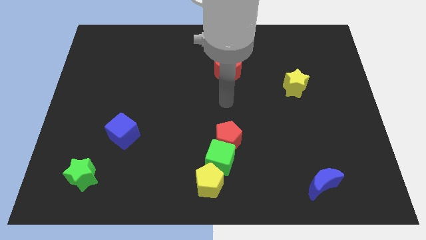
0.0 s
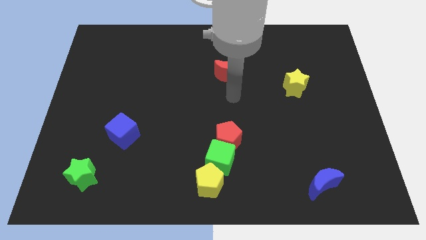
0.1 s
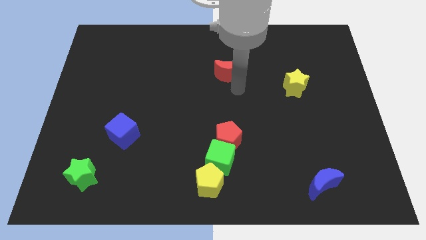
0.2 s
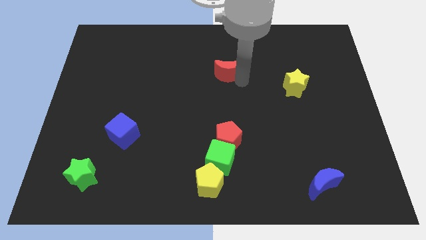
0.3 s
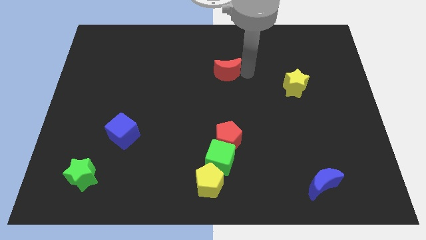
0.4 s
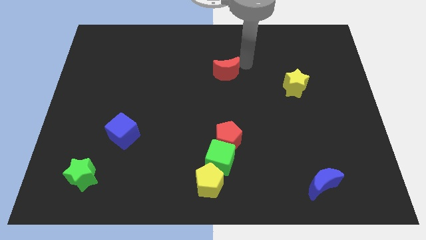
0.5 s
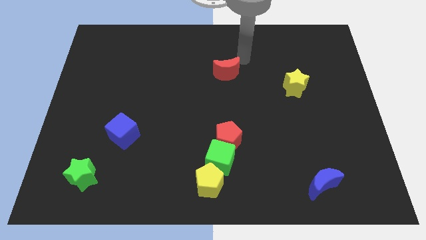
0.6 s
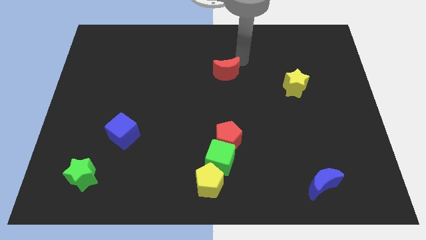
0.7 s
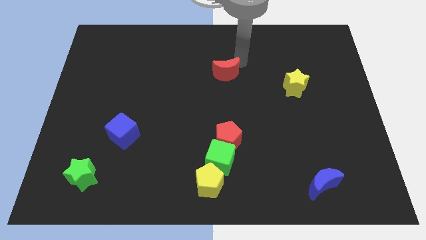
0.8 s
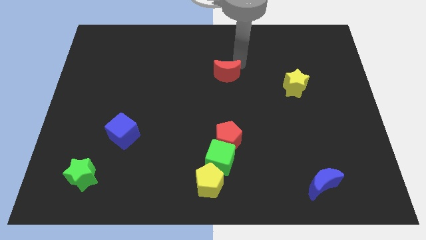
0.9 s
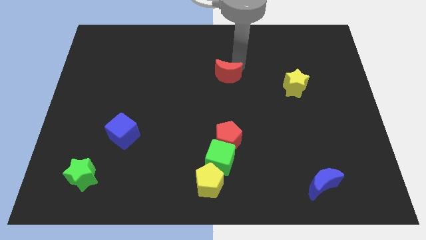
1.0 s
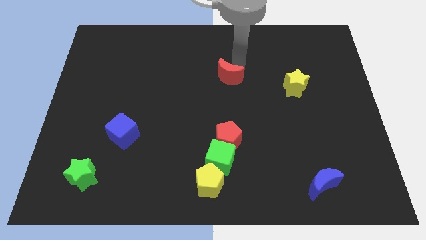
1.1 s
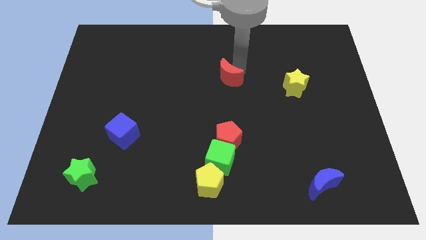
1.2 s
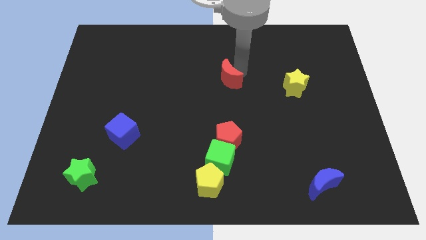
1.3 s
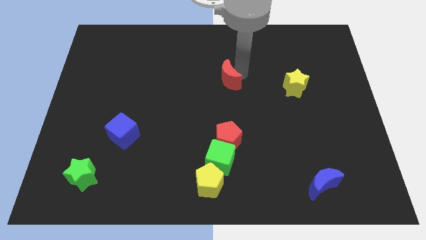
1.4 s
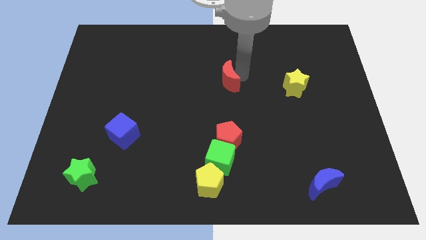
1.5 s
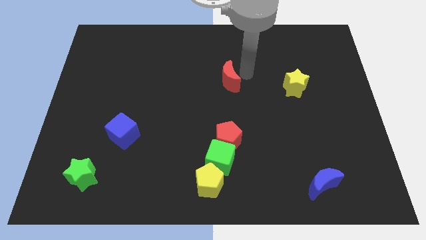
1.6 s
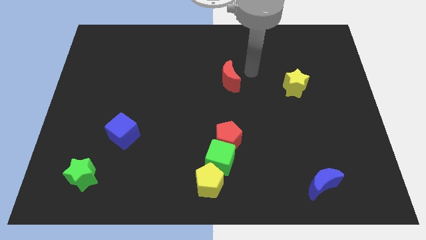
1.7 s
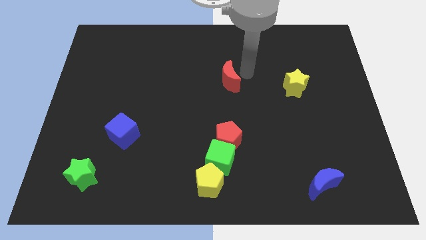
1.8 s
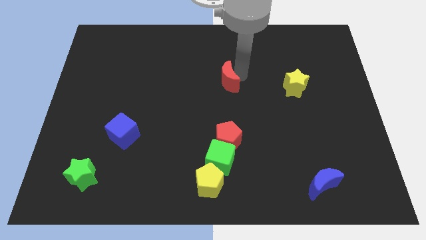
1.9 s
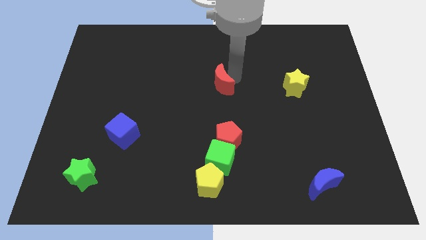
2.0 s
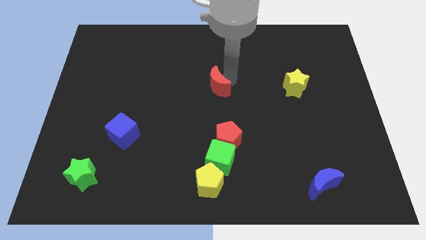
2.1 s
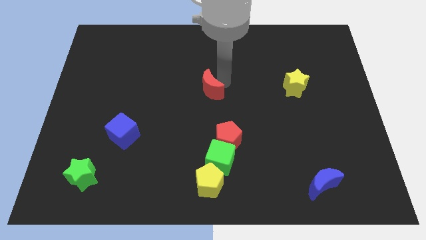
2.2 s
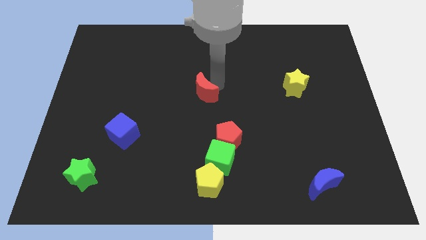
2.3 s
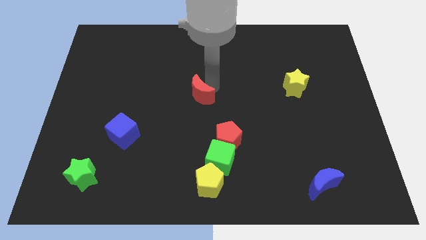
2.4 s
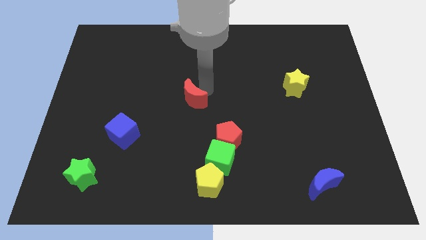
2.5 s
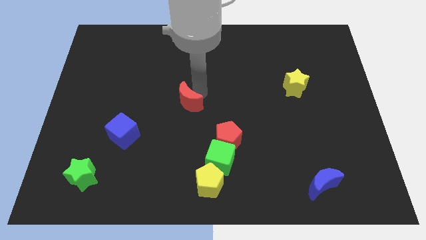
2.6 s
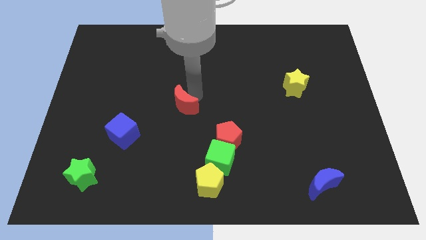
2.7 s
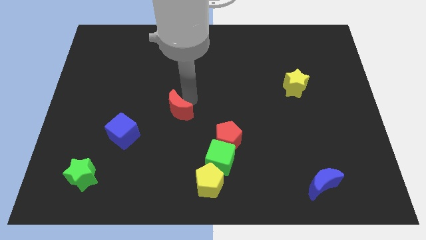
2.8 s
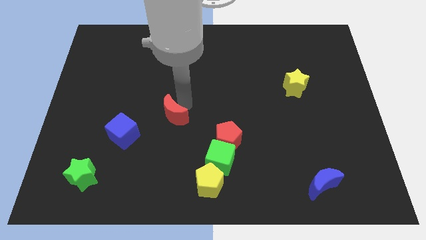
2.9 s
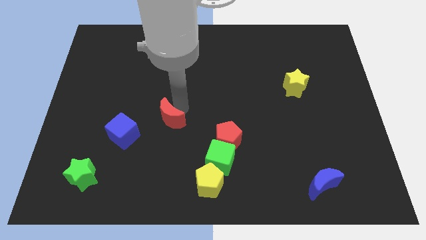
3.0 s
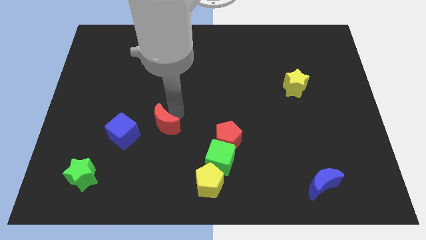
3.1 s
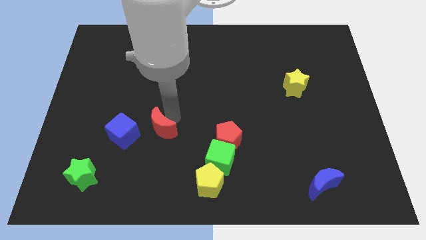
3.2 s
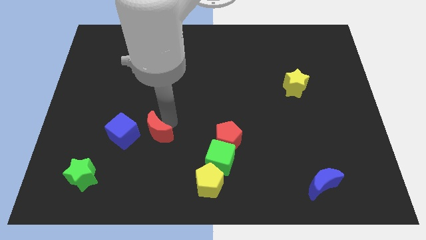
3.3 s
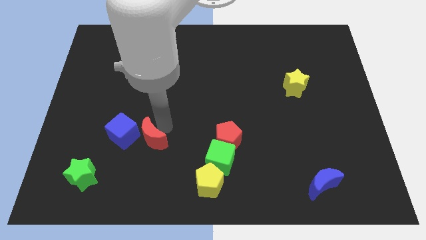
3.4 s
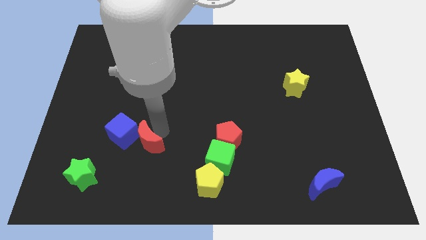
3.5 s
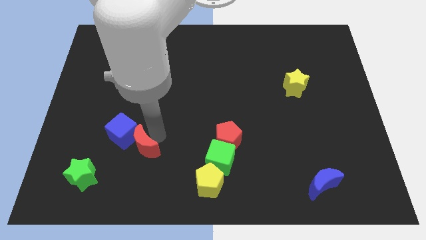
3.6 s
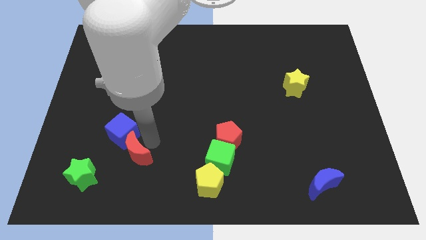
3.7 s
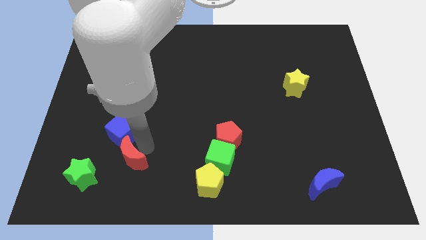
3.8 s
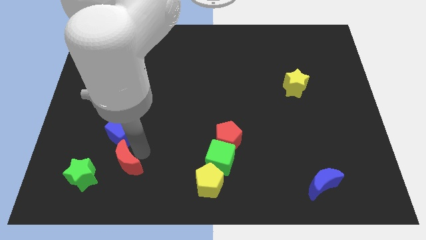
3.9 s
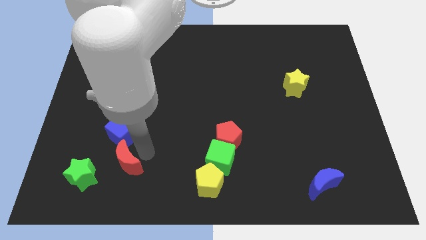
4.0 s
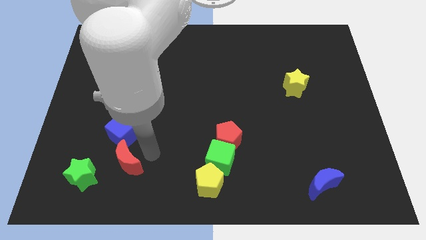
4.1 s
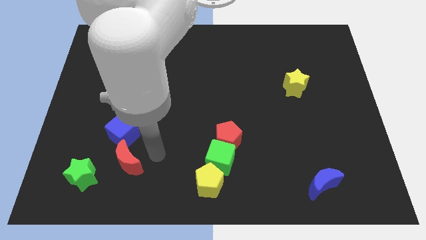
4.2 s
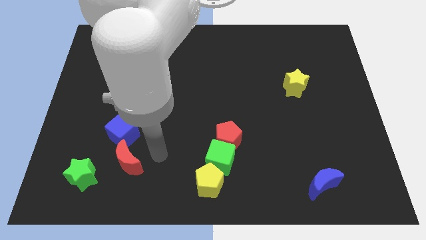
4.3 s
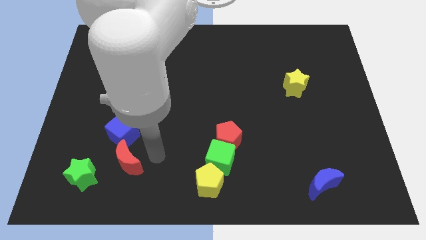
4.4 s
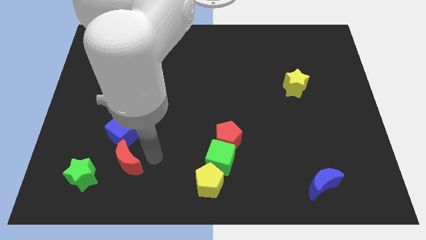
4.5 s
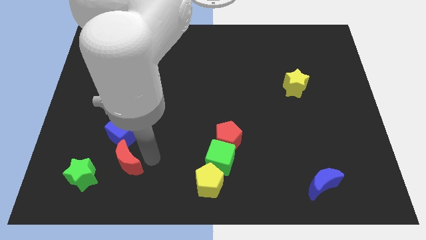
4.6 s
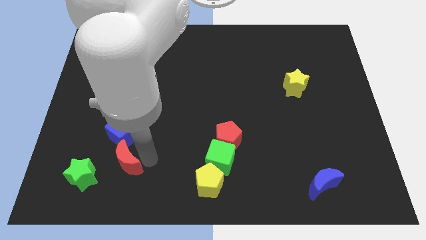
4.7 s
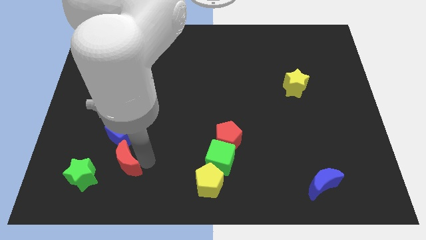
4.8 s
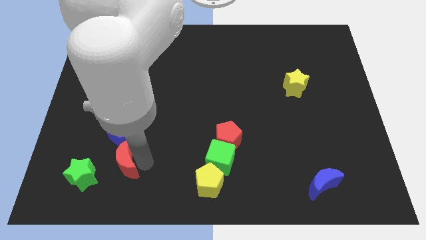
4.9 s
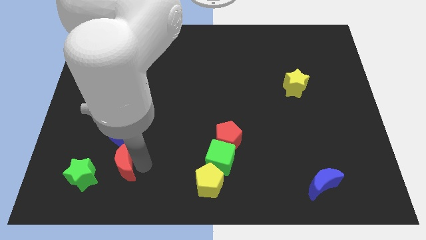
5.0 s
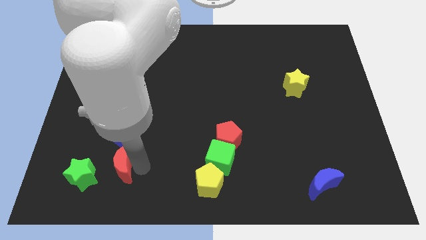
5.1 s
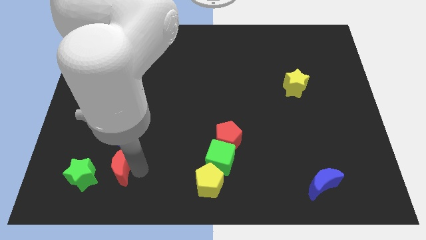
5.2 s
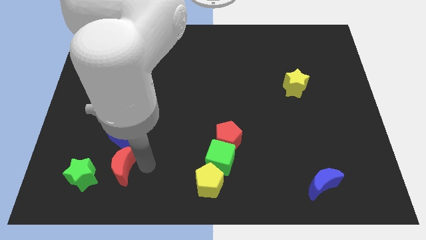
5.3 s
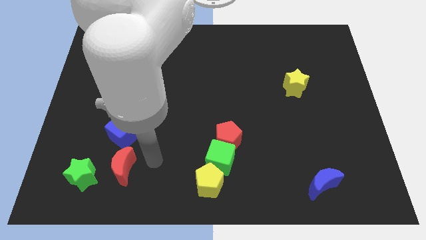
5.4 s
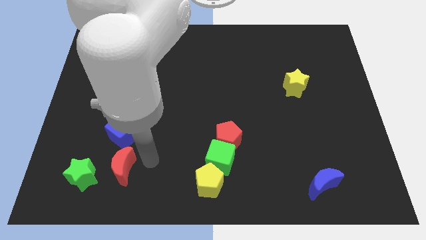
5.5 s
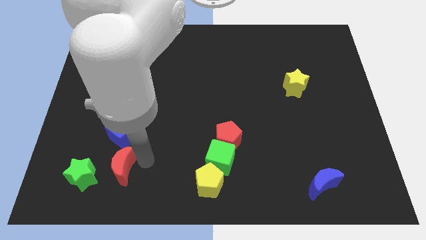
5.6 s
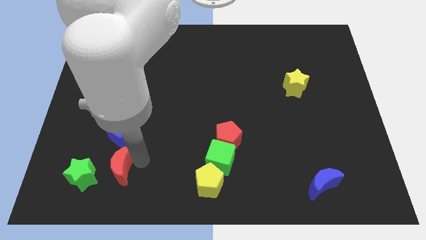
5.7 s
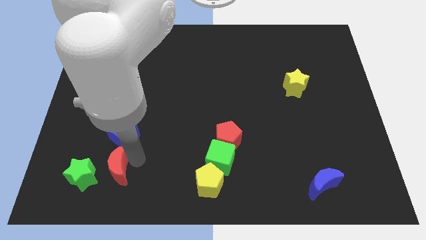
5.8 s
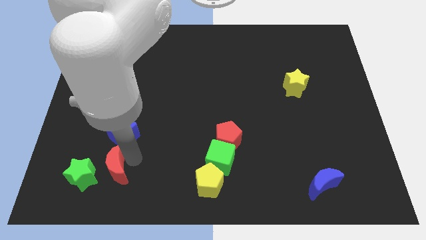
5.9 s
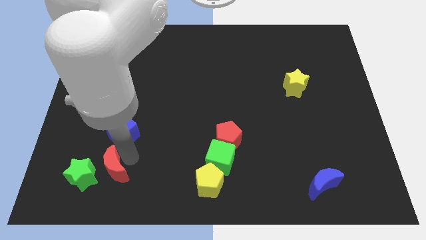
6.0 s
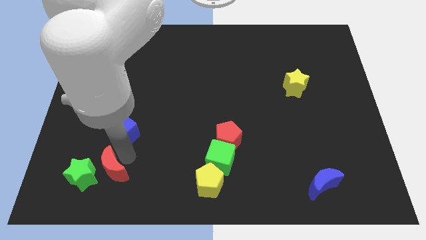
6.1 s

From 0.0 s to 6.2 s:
slide the red moon to the green star

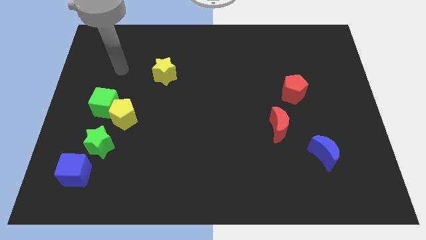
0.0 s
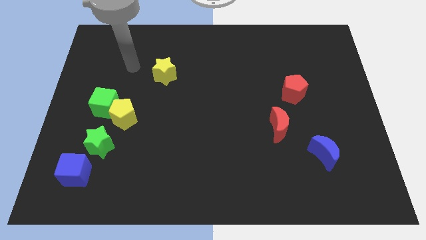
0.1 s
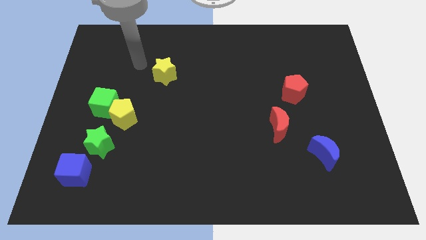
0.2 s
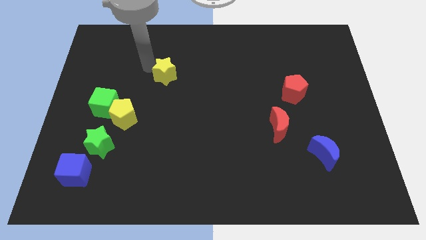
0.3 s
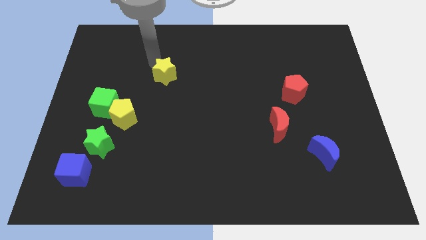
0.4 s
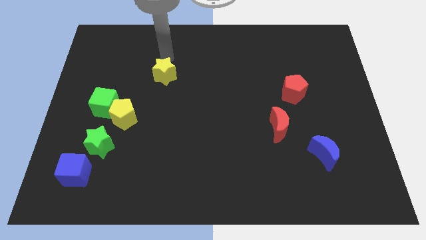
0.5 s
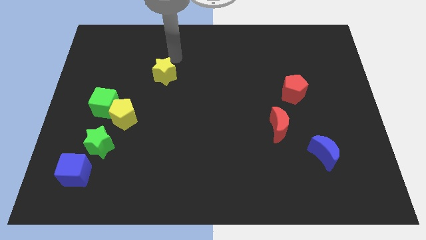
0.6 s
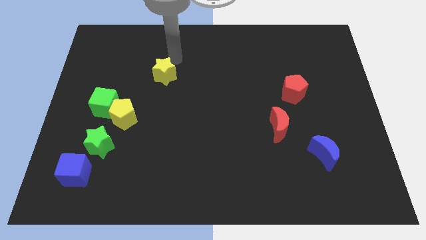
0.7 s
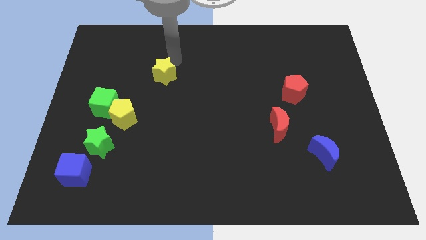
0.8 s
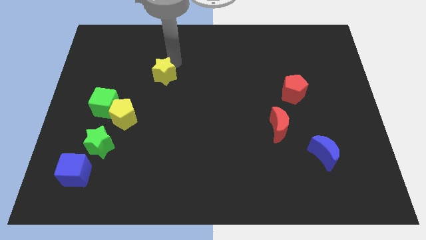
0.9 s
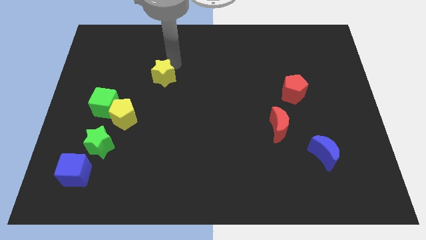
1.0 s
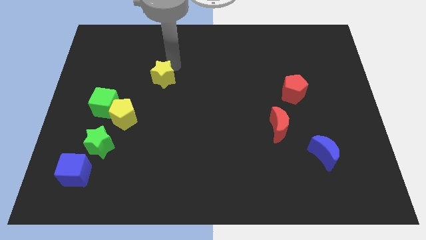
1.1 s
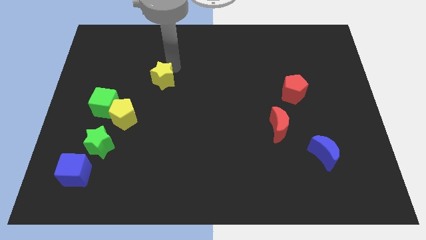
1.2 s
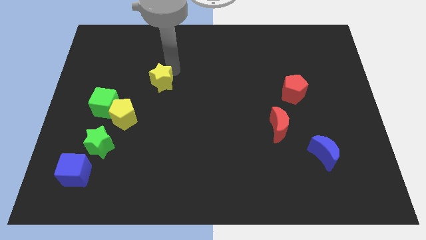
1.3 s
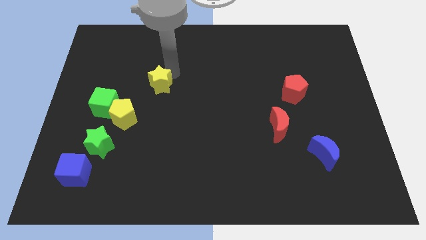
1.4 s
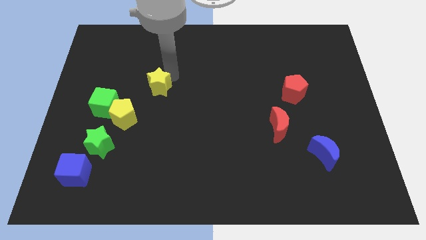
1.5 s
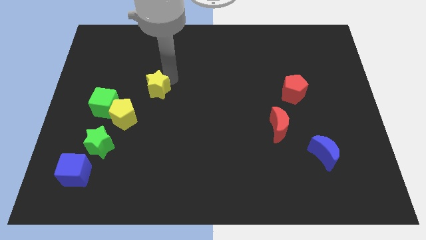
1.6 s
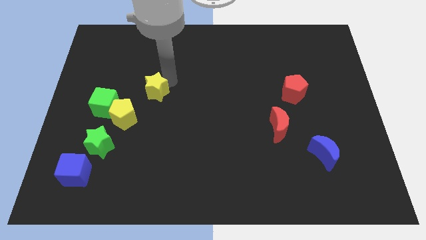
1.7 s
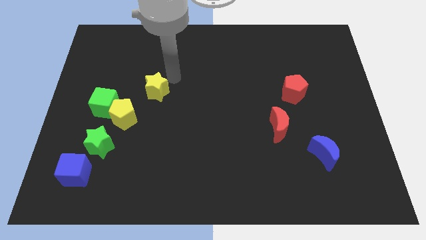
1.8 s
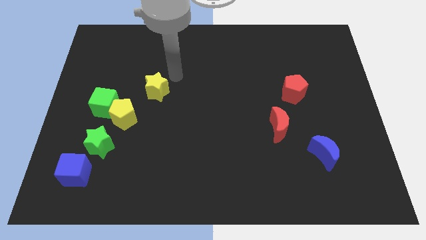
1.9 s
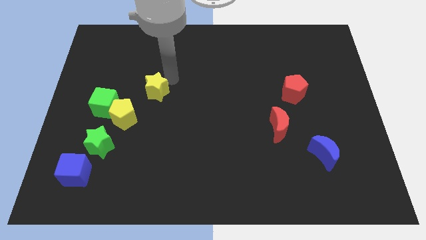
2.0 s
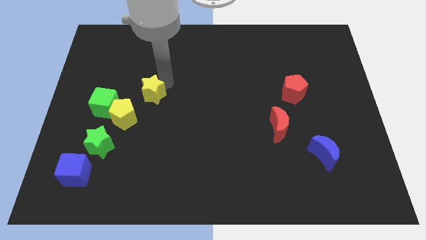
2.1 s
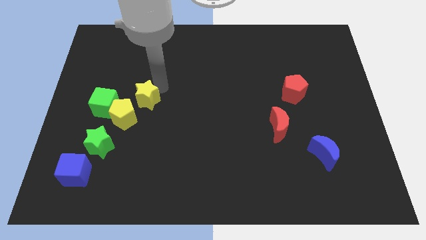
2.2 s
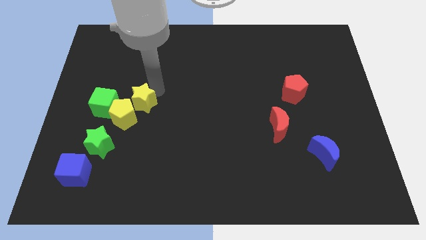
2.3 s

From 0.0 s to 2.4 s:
slide the yellow star towards the yellow pentagon
